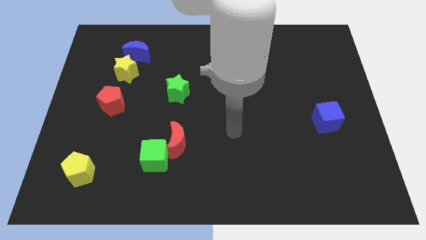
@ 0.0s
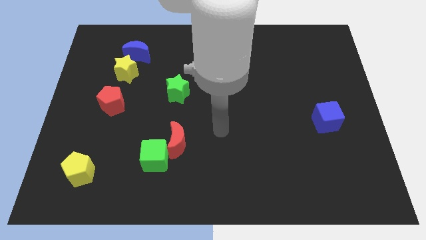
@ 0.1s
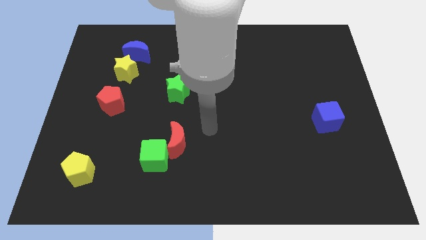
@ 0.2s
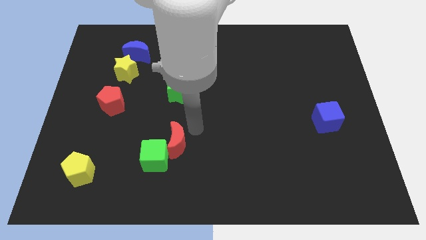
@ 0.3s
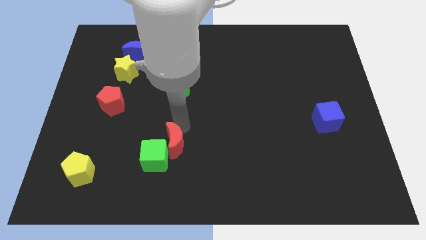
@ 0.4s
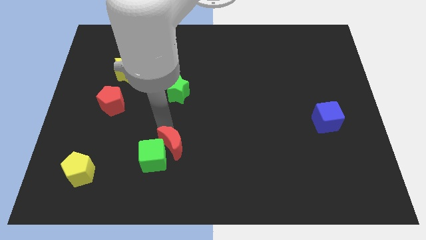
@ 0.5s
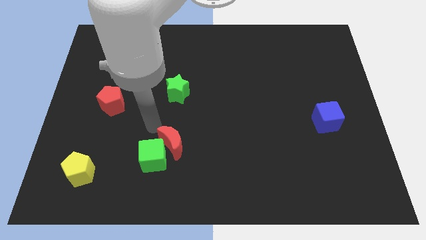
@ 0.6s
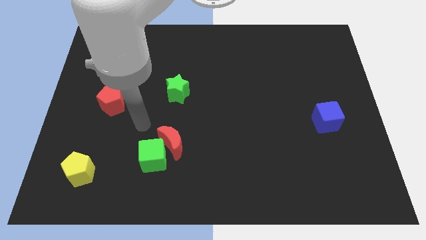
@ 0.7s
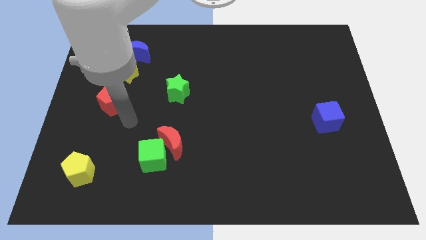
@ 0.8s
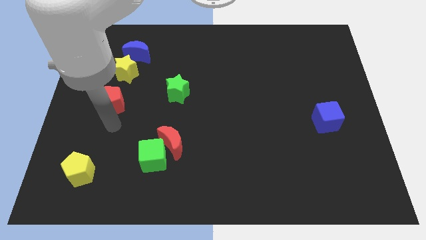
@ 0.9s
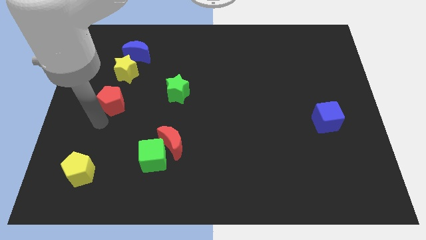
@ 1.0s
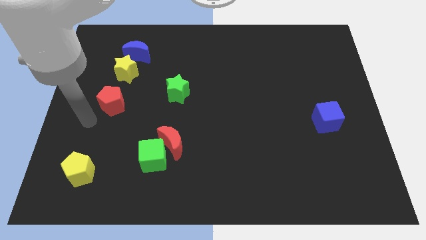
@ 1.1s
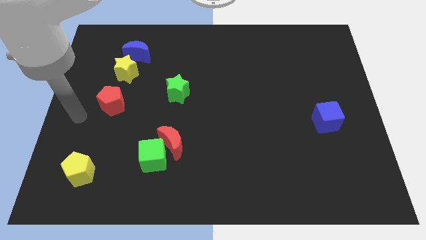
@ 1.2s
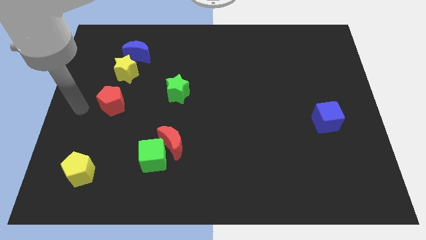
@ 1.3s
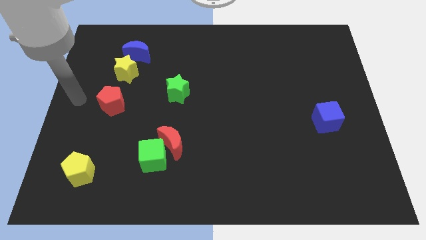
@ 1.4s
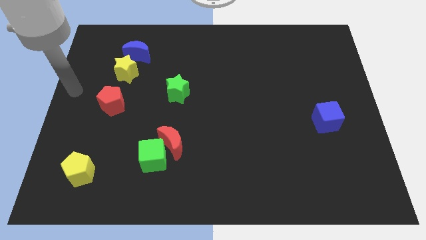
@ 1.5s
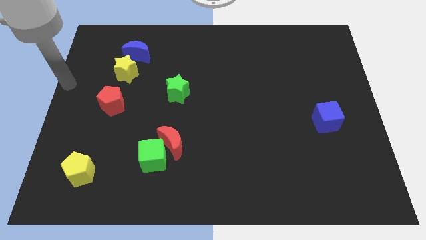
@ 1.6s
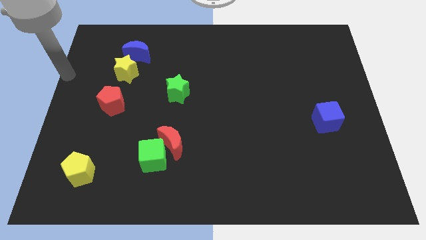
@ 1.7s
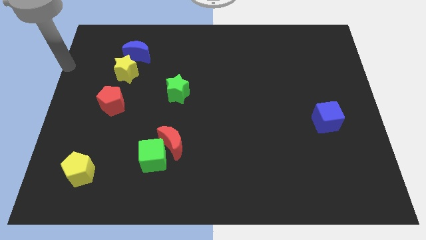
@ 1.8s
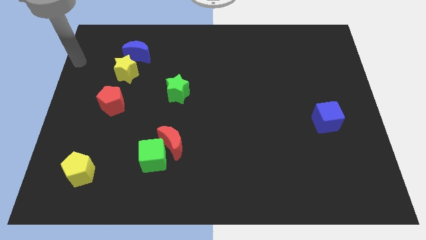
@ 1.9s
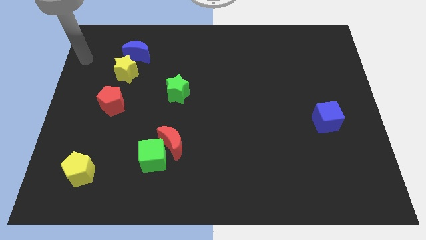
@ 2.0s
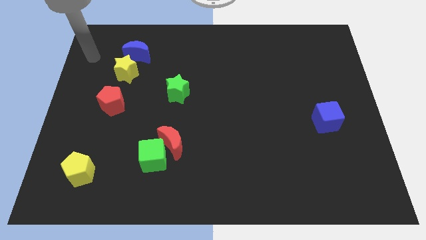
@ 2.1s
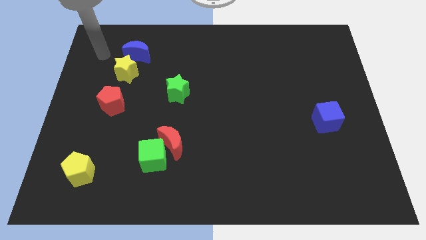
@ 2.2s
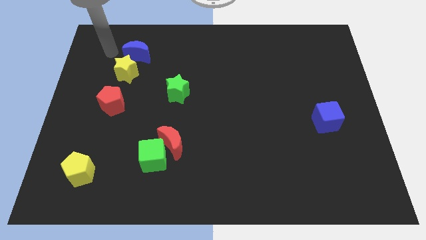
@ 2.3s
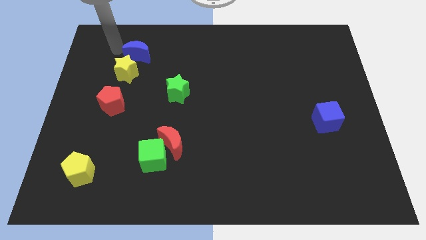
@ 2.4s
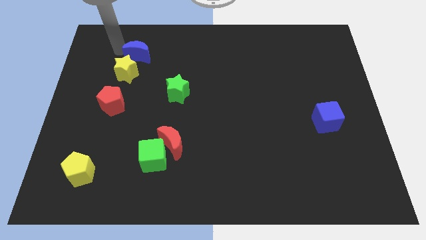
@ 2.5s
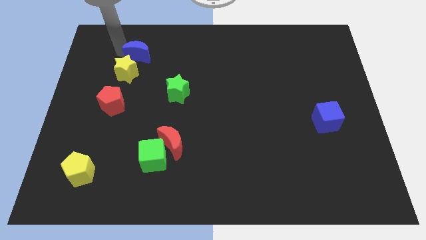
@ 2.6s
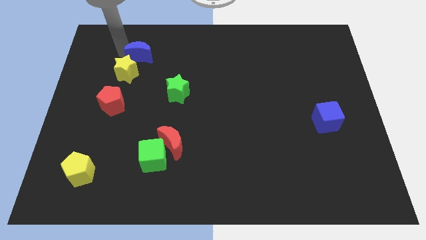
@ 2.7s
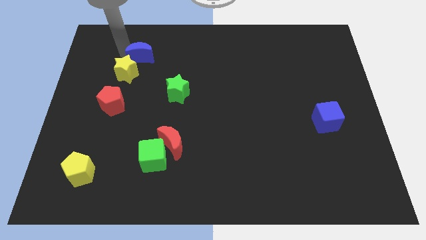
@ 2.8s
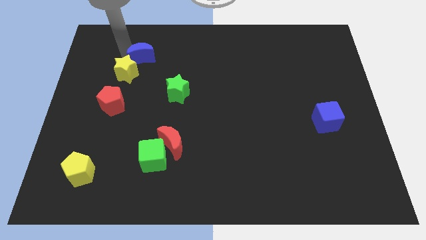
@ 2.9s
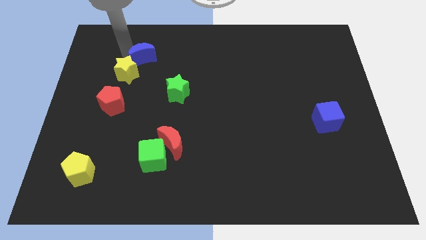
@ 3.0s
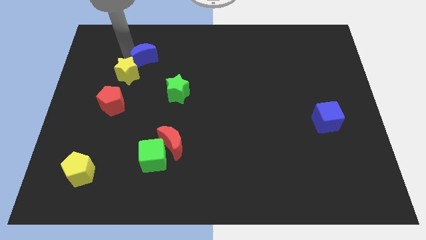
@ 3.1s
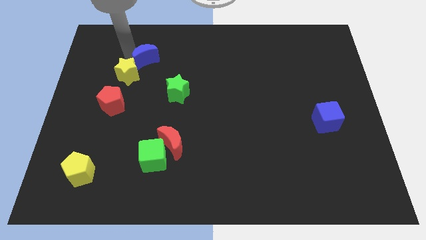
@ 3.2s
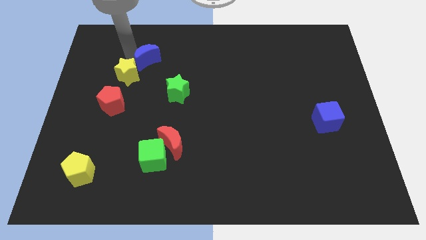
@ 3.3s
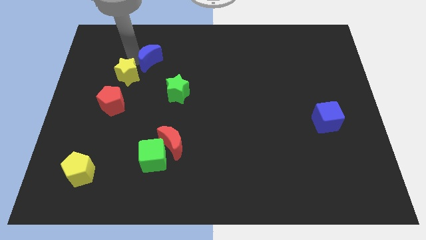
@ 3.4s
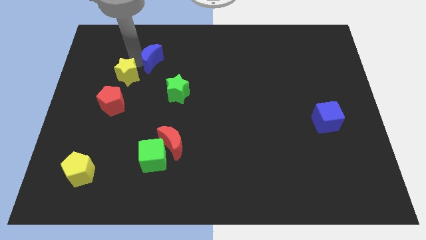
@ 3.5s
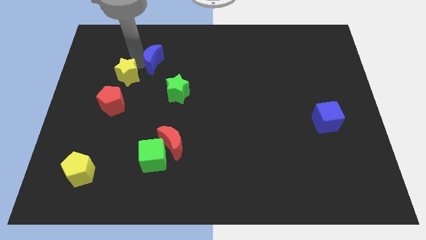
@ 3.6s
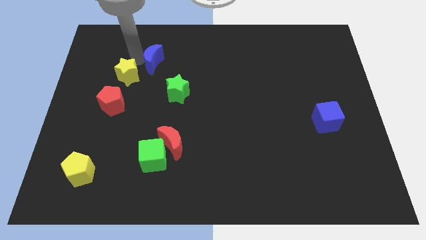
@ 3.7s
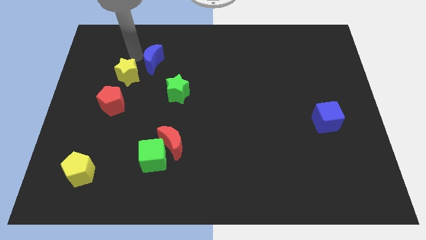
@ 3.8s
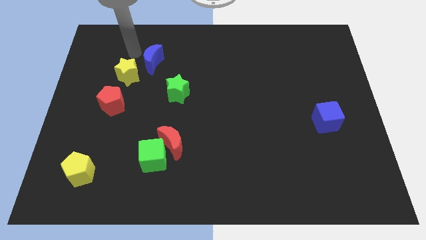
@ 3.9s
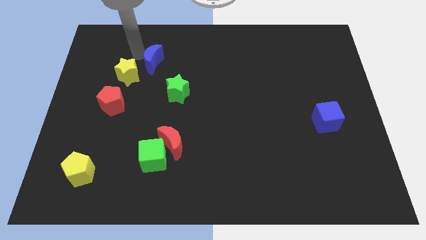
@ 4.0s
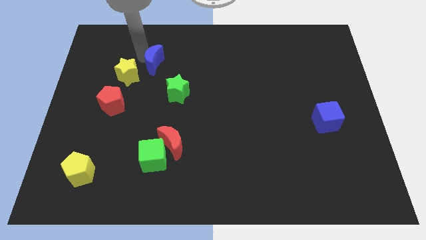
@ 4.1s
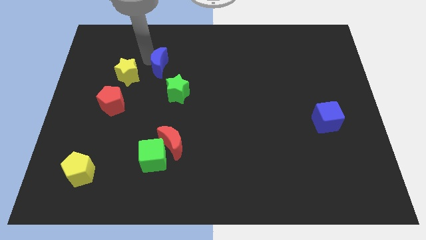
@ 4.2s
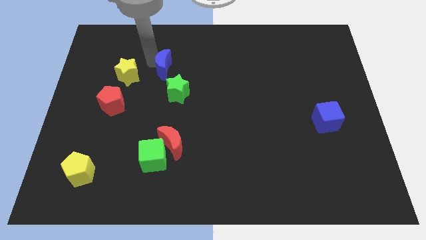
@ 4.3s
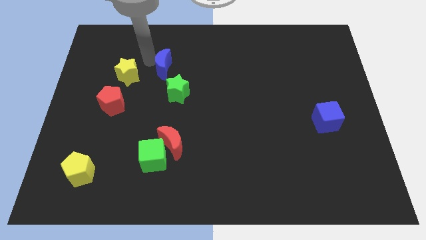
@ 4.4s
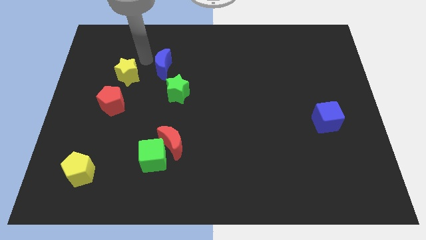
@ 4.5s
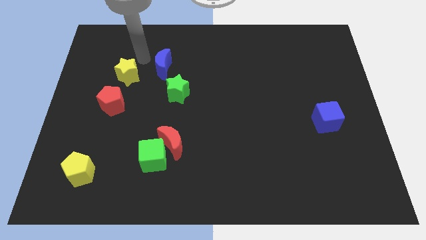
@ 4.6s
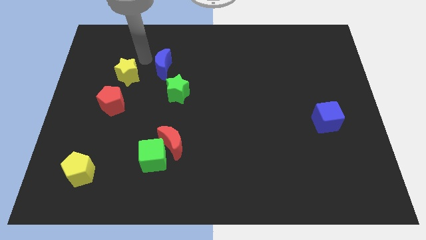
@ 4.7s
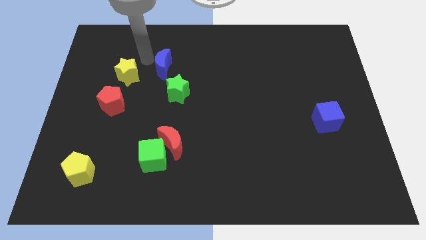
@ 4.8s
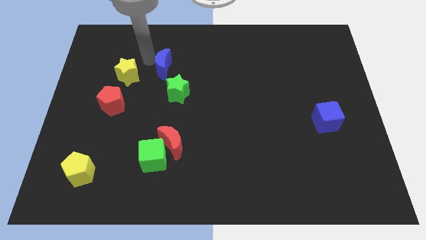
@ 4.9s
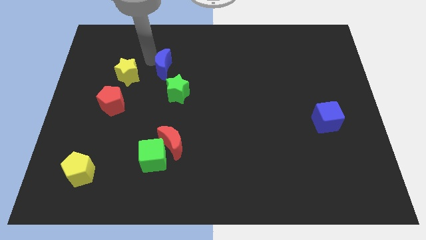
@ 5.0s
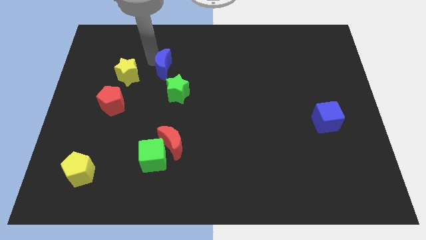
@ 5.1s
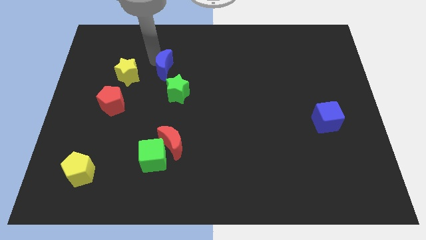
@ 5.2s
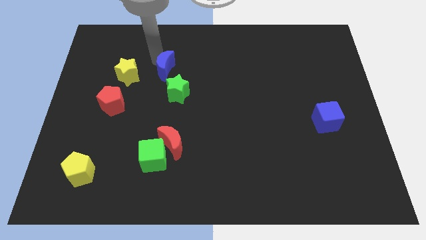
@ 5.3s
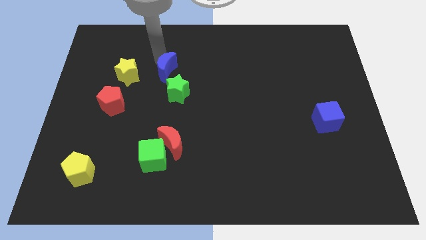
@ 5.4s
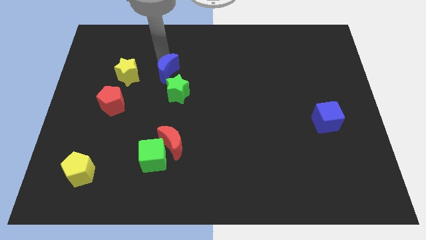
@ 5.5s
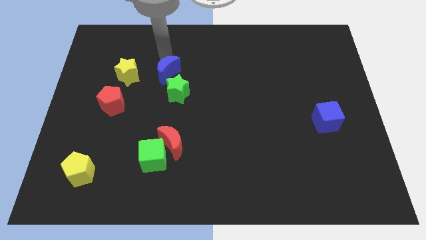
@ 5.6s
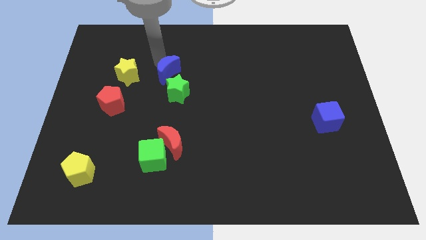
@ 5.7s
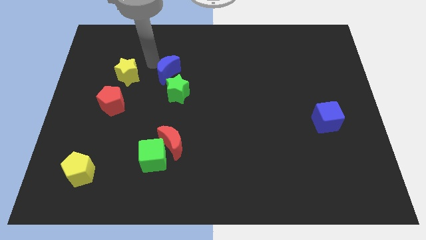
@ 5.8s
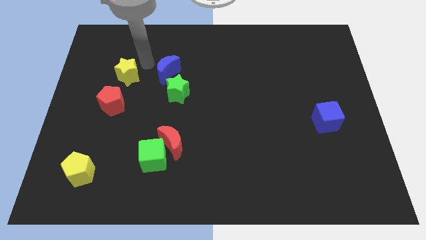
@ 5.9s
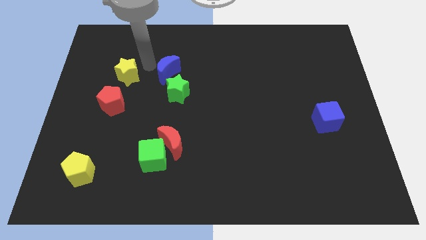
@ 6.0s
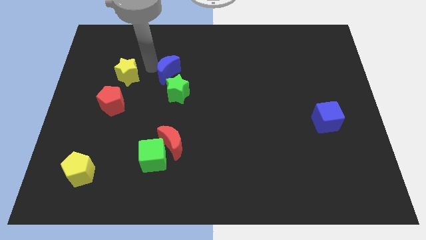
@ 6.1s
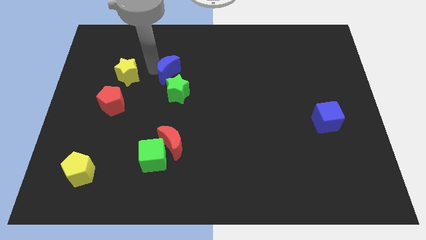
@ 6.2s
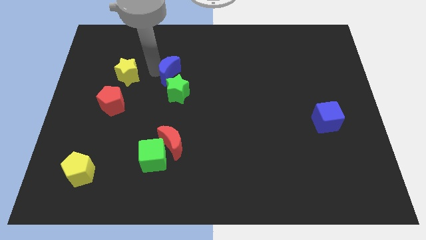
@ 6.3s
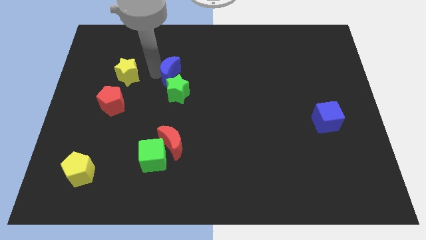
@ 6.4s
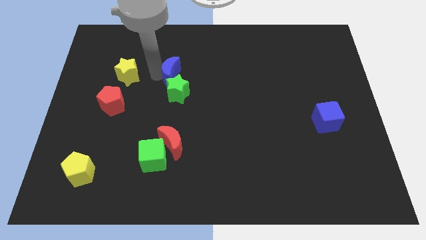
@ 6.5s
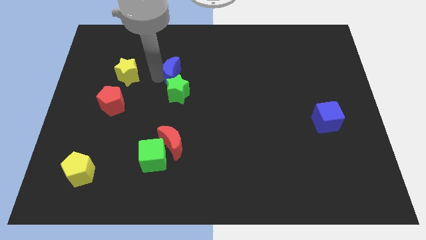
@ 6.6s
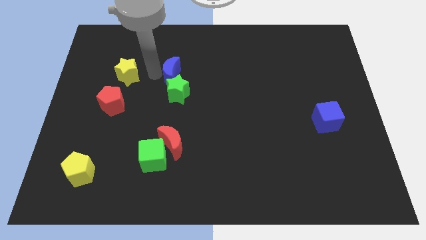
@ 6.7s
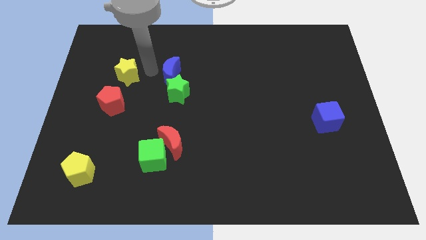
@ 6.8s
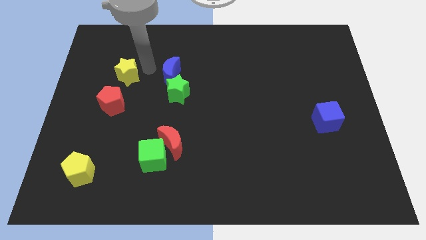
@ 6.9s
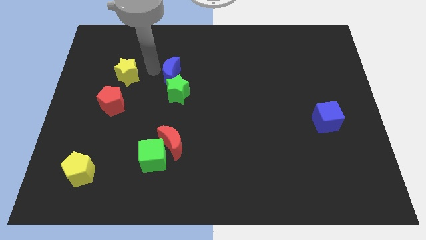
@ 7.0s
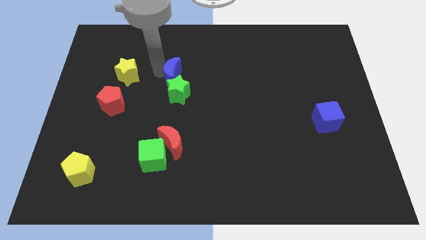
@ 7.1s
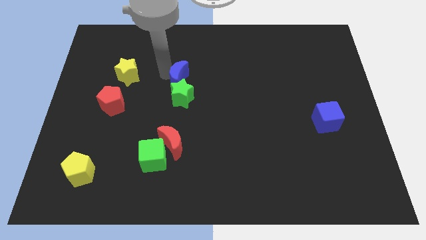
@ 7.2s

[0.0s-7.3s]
slide the blue moon to the center of the board
